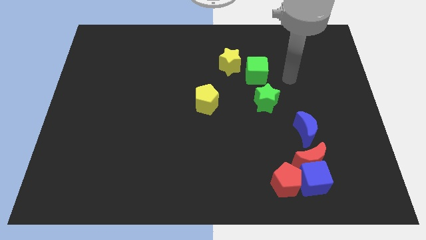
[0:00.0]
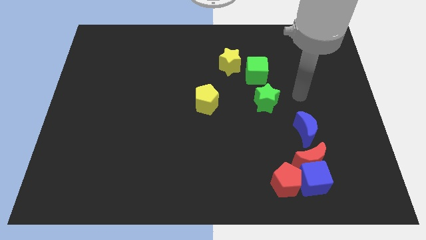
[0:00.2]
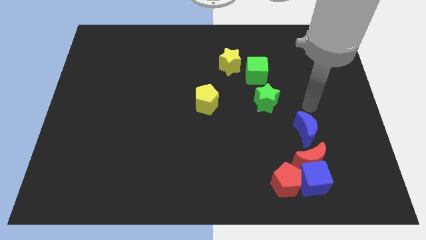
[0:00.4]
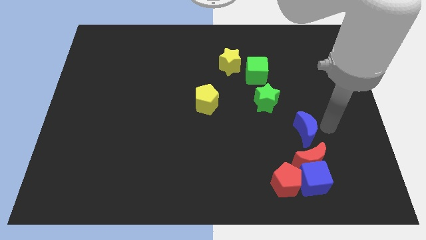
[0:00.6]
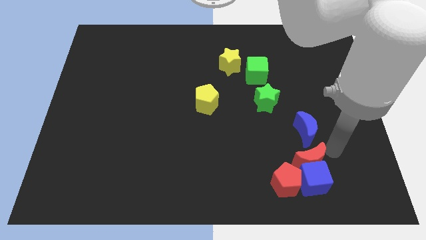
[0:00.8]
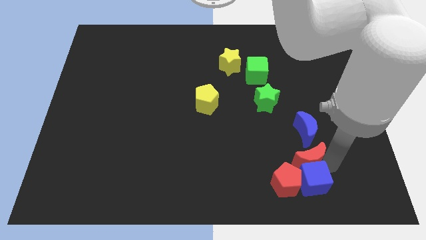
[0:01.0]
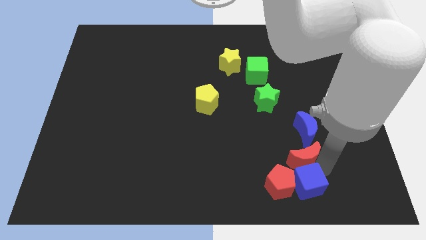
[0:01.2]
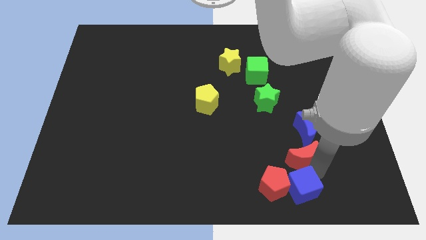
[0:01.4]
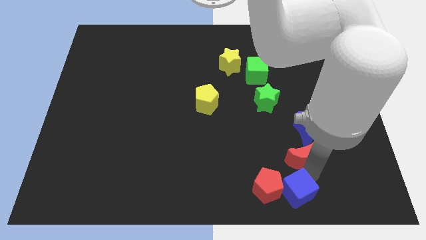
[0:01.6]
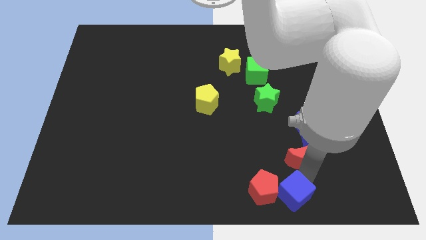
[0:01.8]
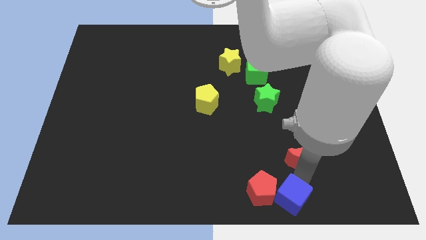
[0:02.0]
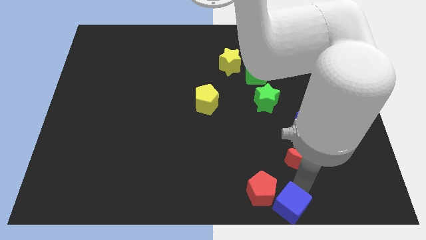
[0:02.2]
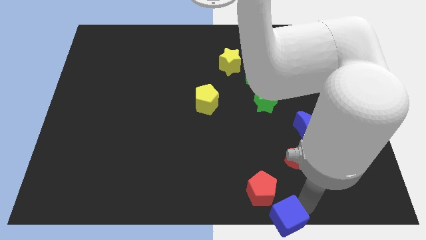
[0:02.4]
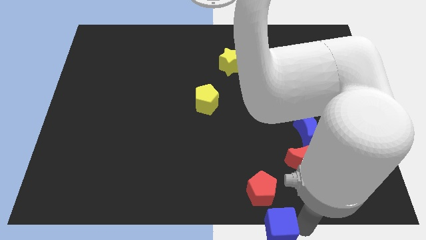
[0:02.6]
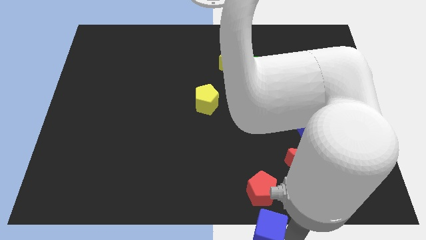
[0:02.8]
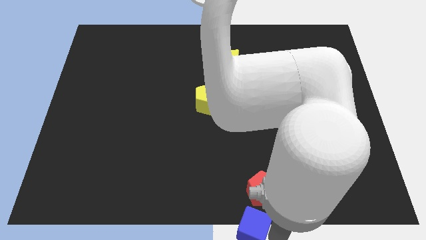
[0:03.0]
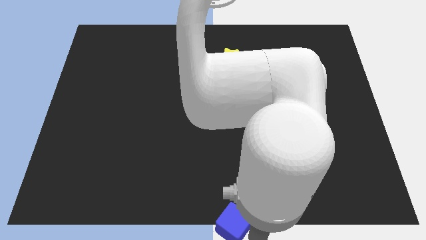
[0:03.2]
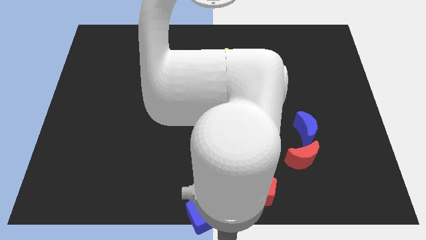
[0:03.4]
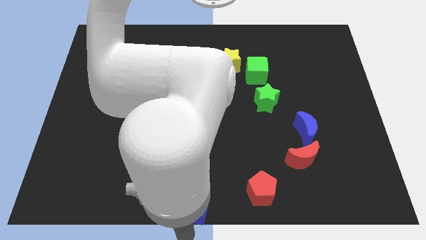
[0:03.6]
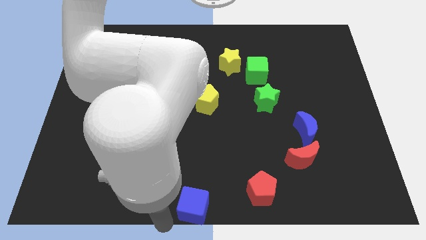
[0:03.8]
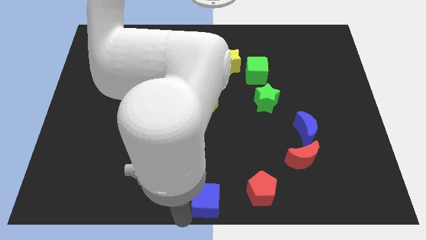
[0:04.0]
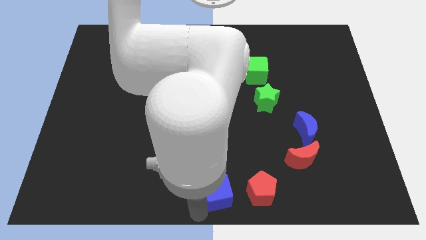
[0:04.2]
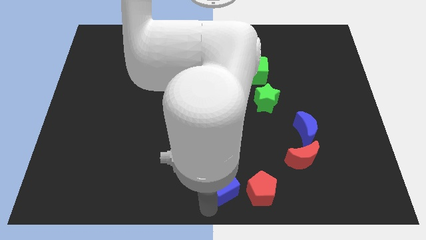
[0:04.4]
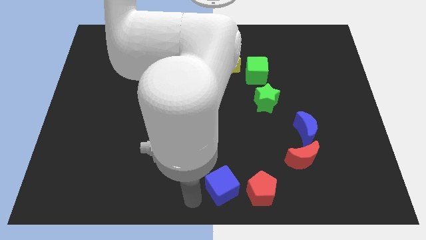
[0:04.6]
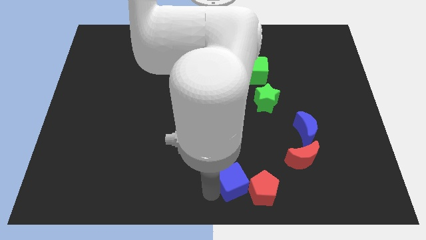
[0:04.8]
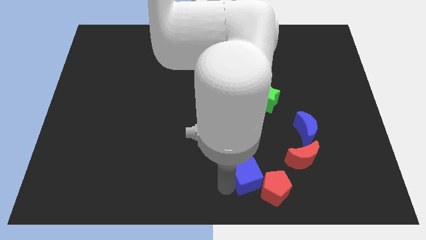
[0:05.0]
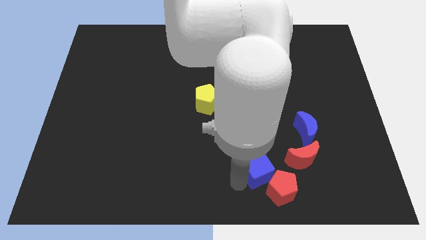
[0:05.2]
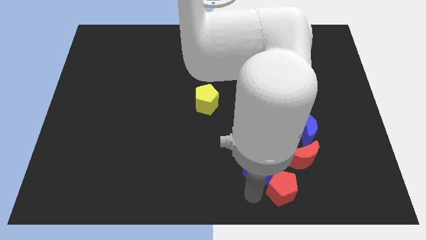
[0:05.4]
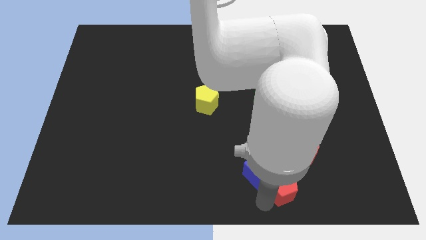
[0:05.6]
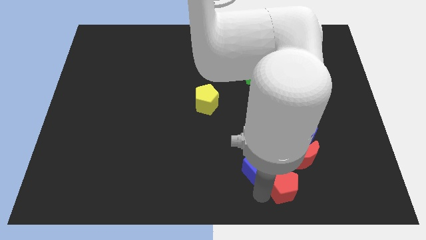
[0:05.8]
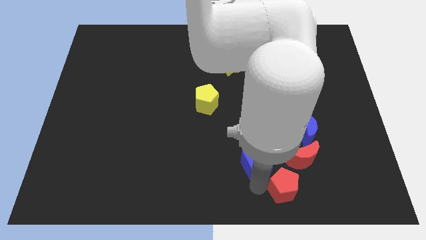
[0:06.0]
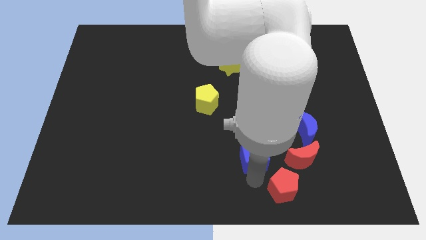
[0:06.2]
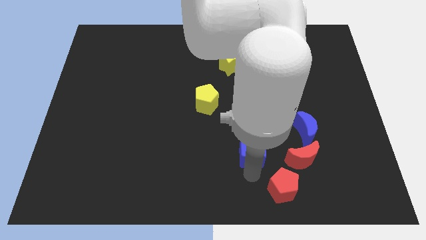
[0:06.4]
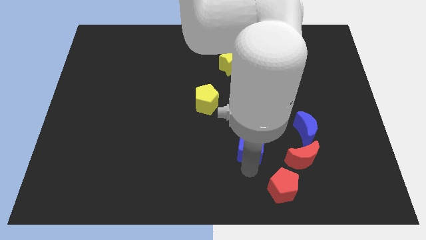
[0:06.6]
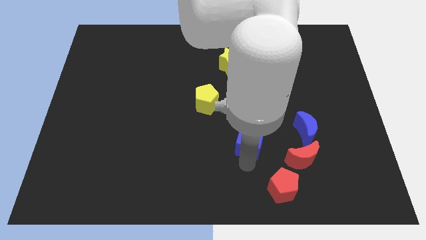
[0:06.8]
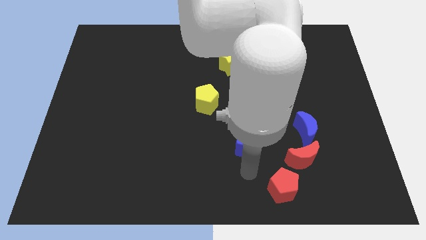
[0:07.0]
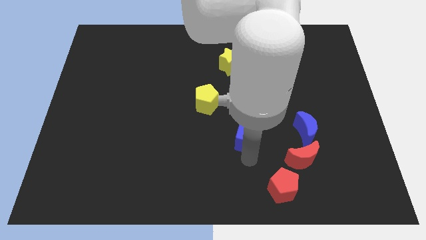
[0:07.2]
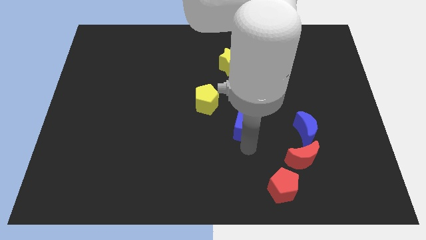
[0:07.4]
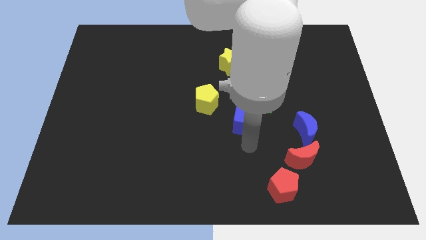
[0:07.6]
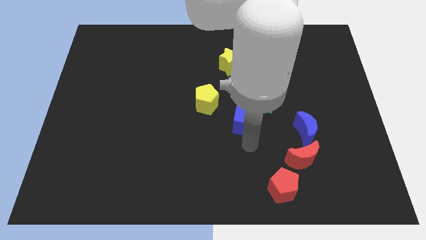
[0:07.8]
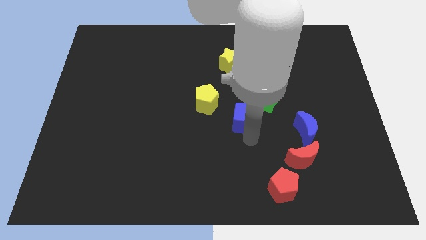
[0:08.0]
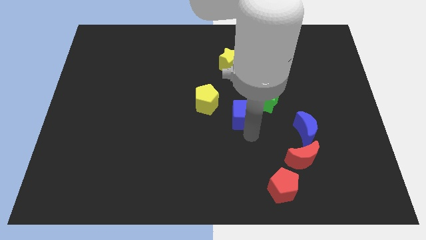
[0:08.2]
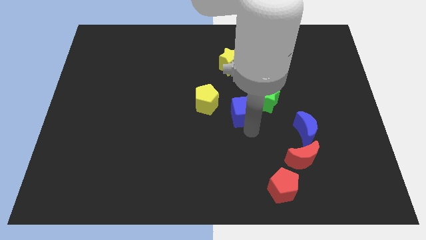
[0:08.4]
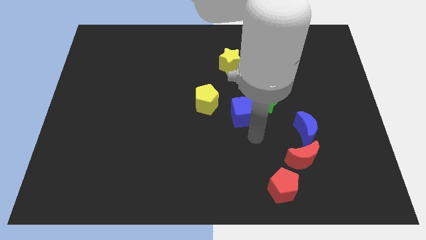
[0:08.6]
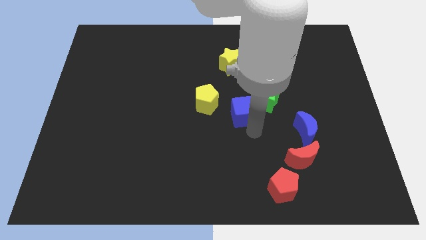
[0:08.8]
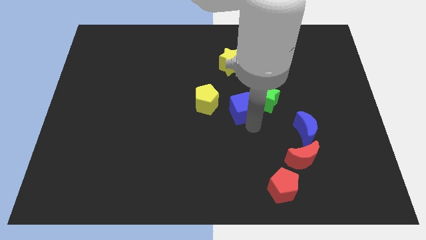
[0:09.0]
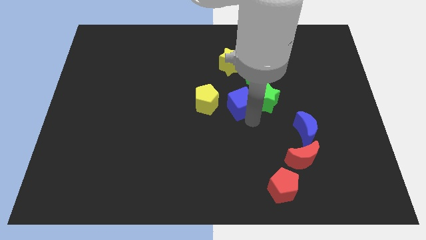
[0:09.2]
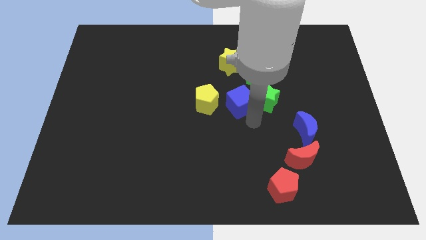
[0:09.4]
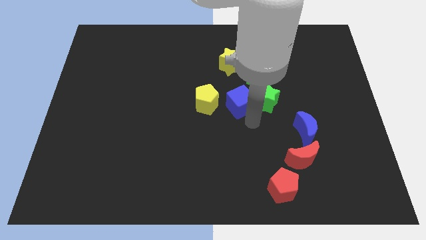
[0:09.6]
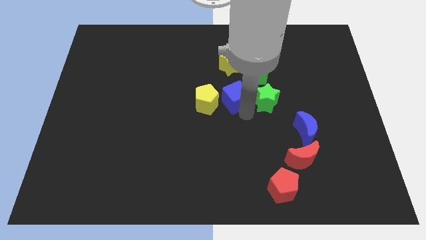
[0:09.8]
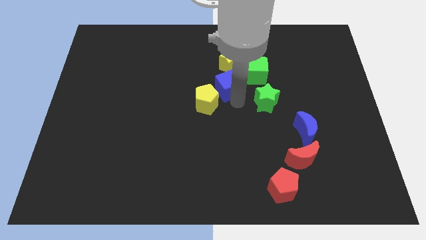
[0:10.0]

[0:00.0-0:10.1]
move the blue cube to the left side of the green cube

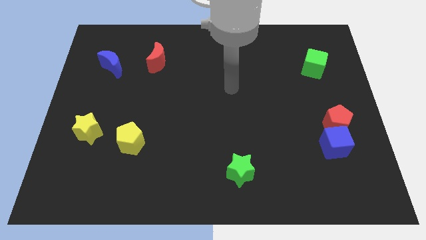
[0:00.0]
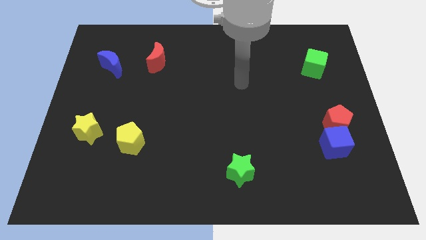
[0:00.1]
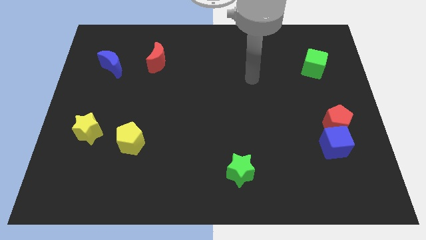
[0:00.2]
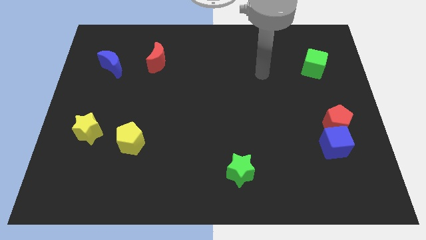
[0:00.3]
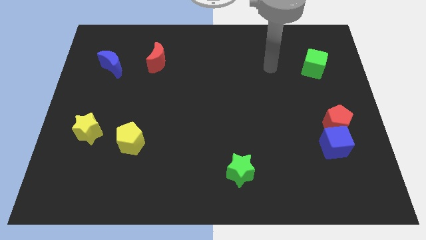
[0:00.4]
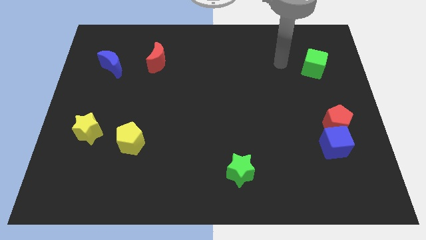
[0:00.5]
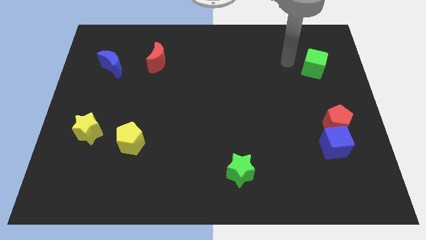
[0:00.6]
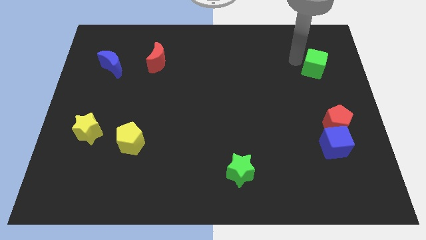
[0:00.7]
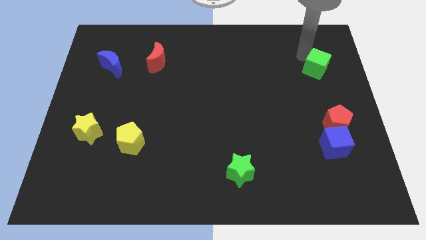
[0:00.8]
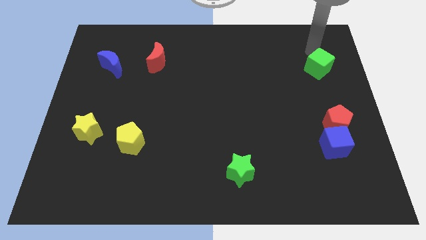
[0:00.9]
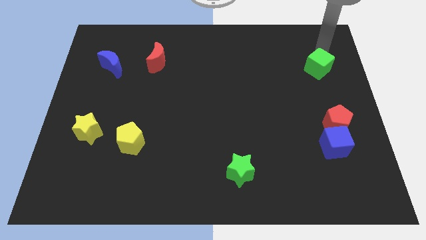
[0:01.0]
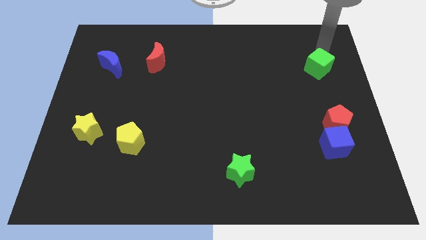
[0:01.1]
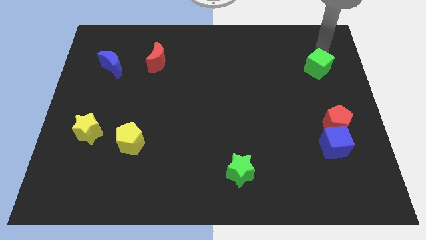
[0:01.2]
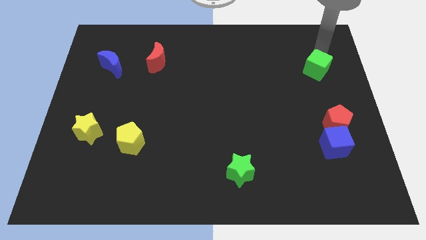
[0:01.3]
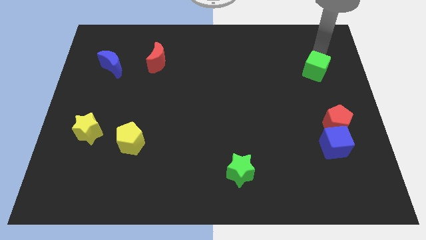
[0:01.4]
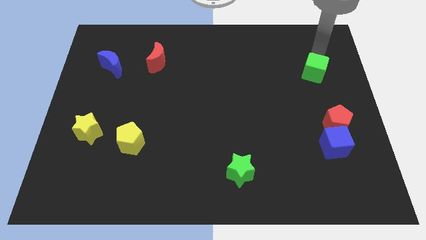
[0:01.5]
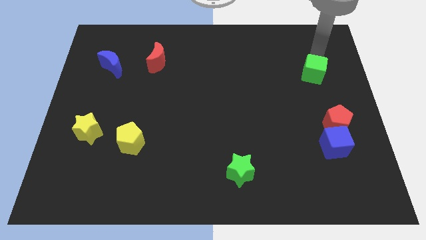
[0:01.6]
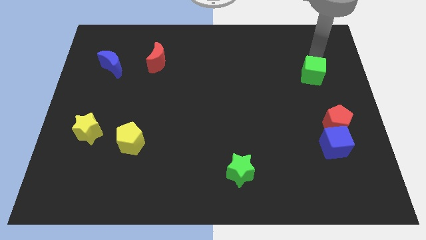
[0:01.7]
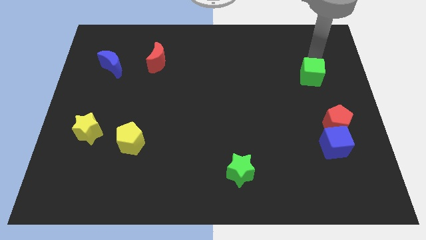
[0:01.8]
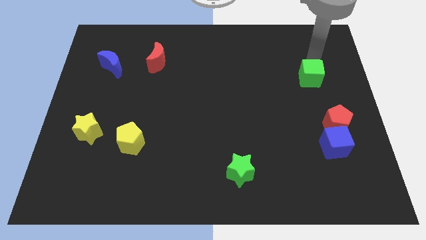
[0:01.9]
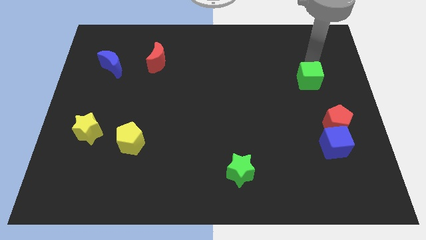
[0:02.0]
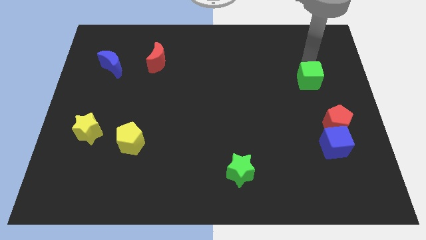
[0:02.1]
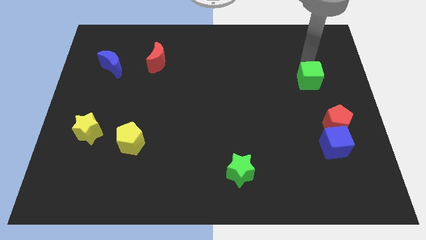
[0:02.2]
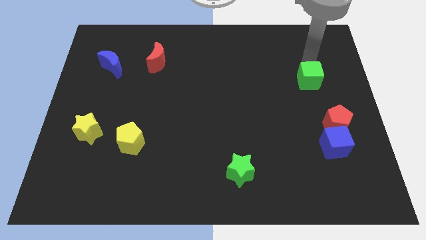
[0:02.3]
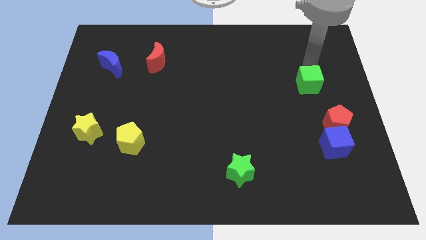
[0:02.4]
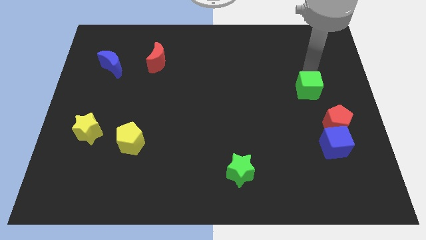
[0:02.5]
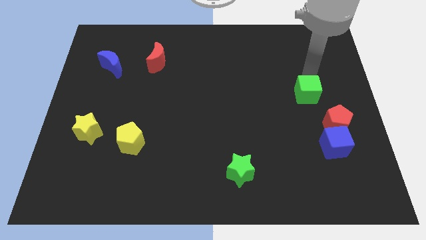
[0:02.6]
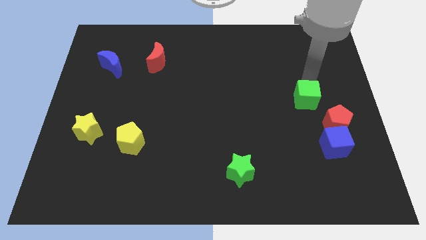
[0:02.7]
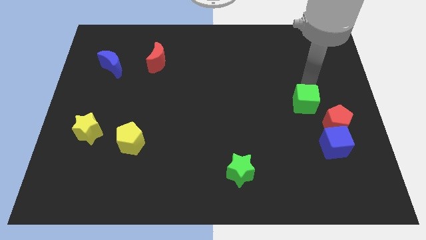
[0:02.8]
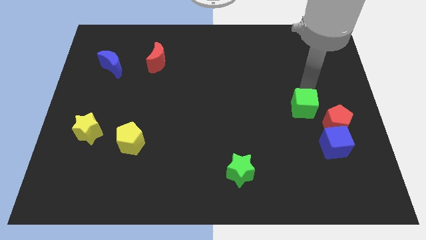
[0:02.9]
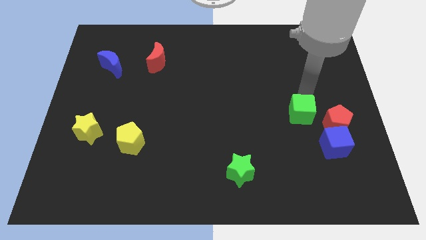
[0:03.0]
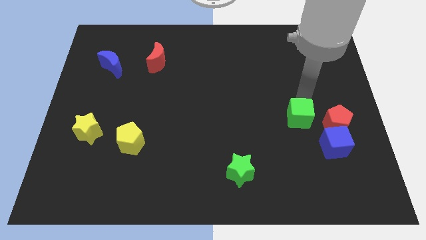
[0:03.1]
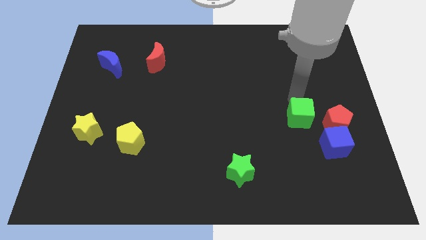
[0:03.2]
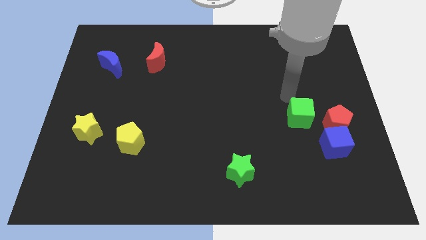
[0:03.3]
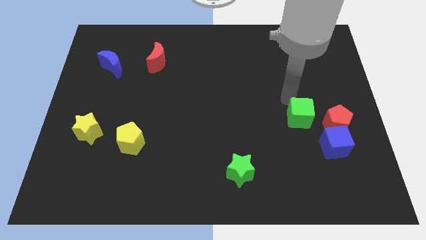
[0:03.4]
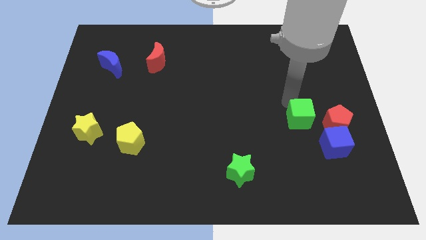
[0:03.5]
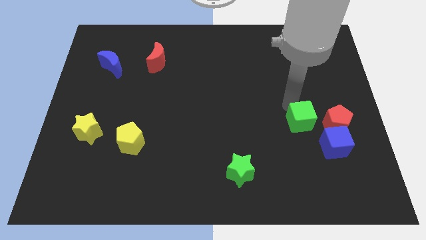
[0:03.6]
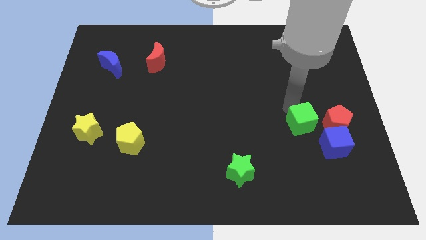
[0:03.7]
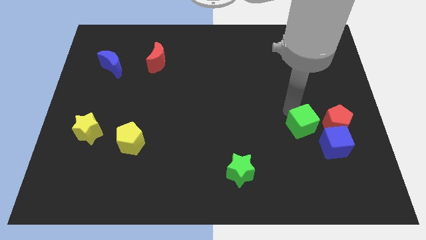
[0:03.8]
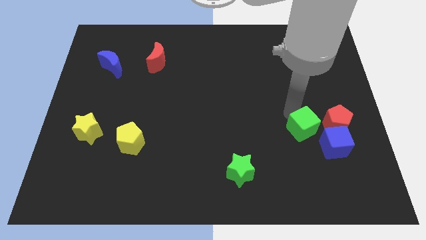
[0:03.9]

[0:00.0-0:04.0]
put the green cube diagonally down and to the left of the red pentagon
